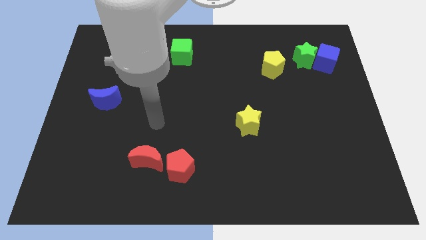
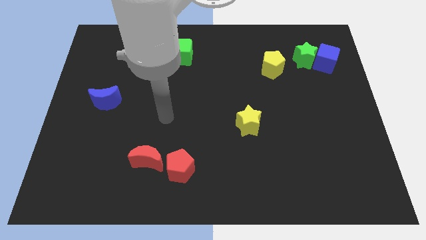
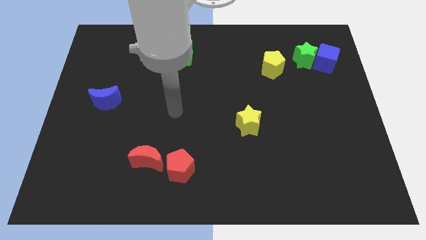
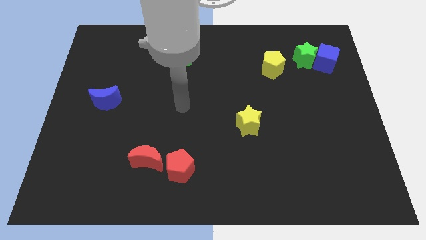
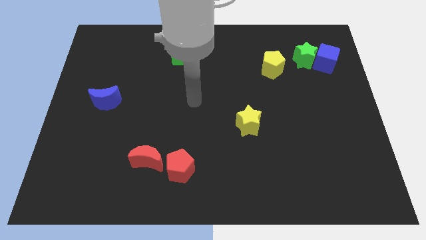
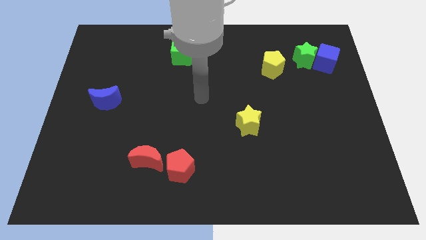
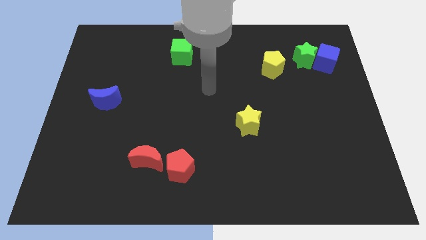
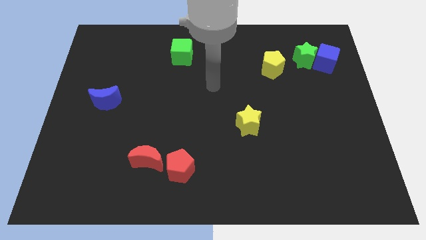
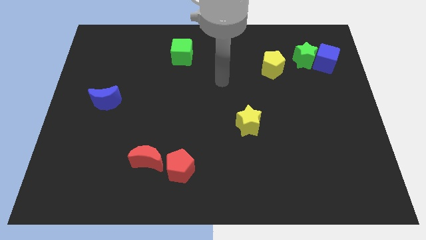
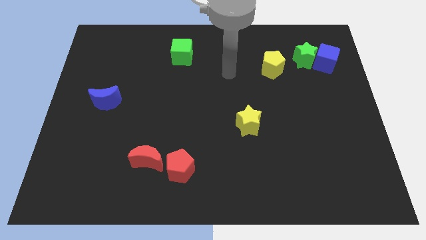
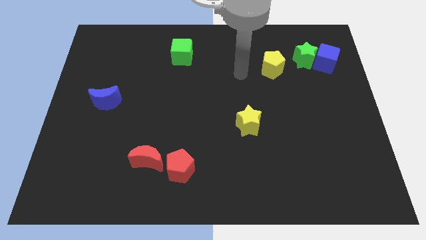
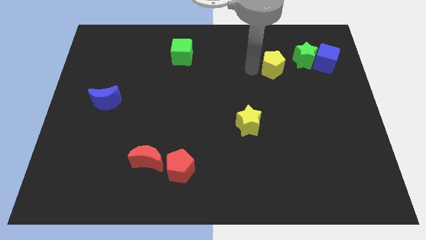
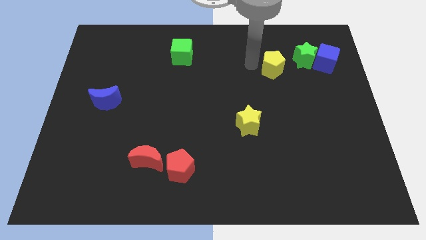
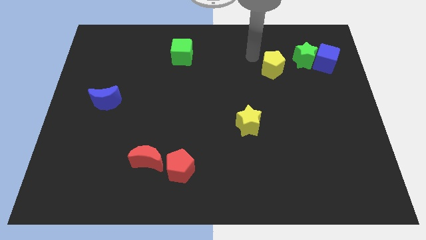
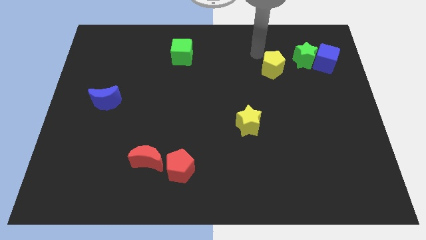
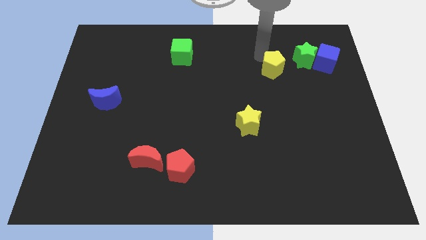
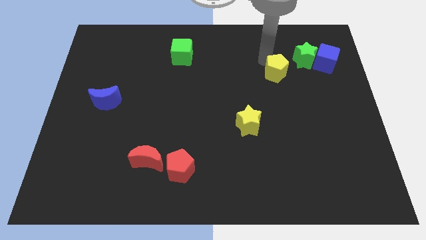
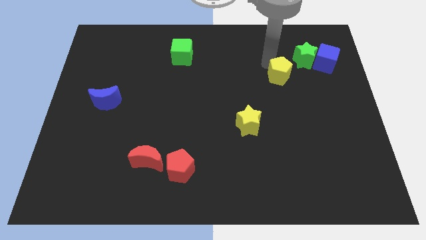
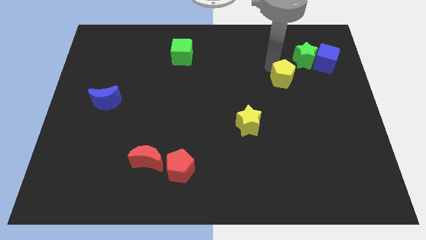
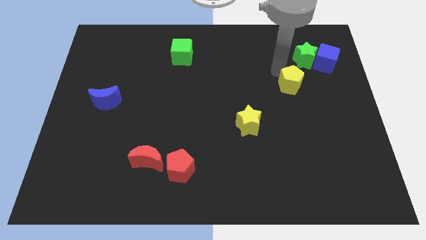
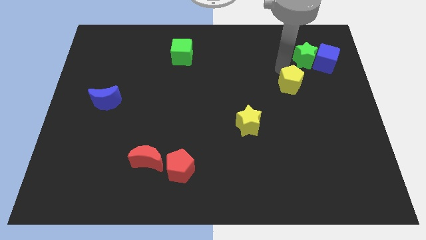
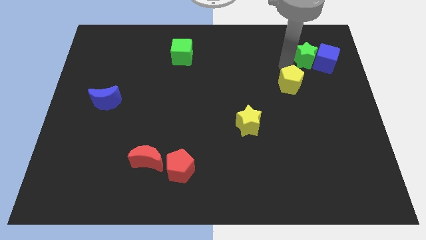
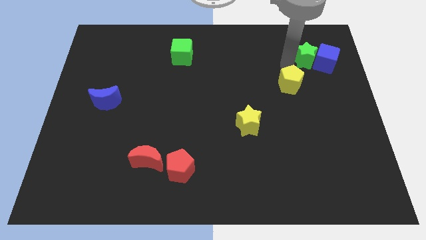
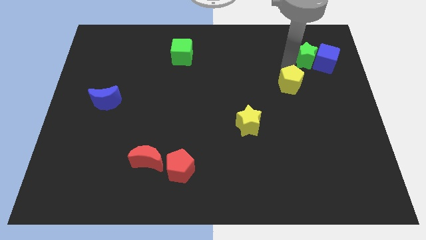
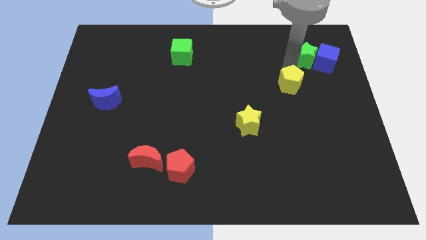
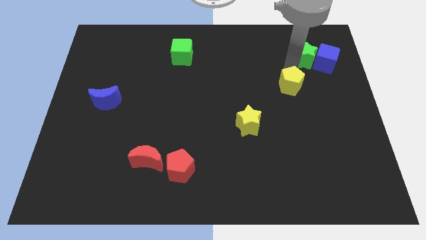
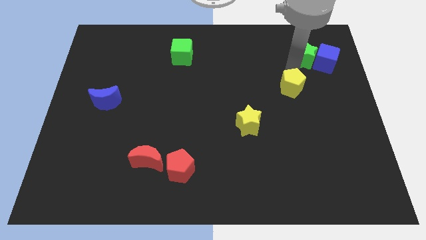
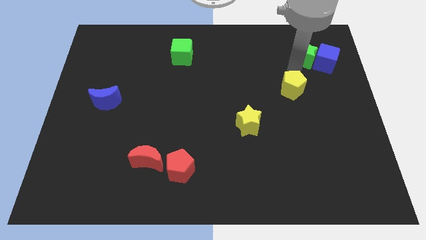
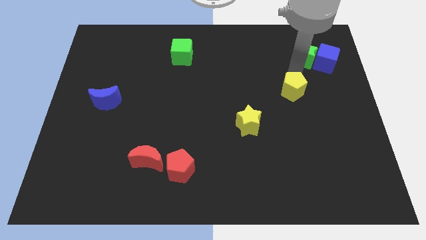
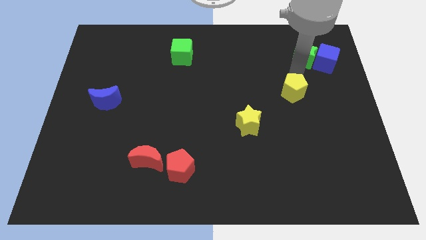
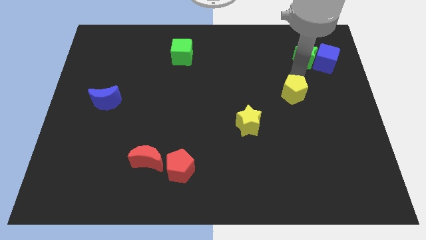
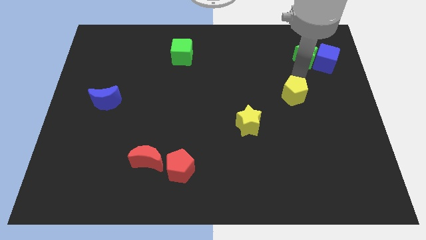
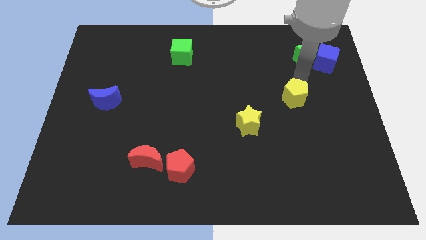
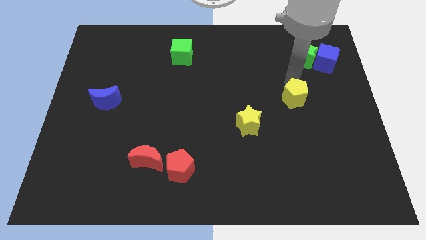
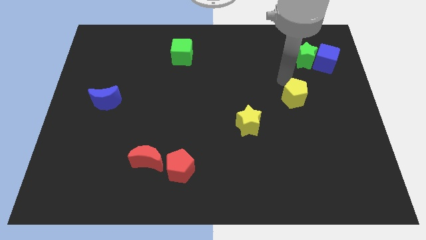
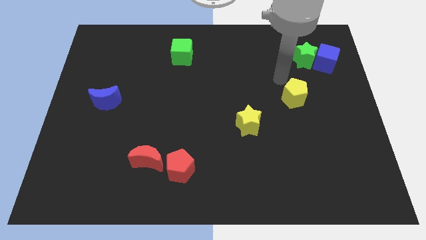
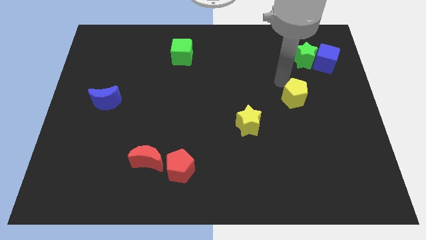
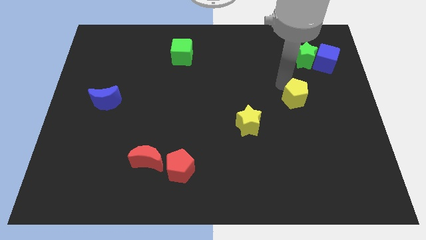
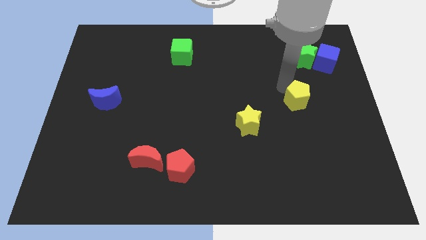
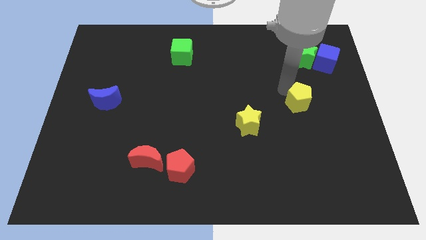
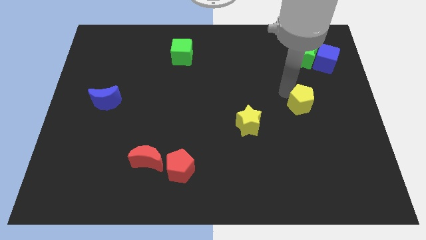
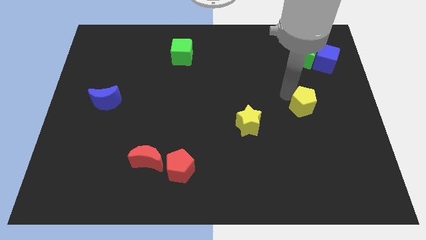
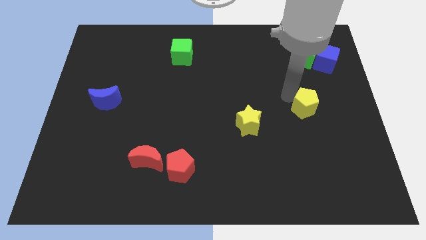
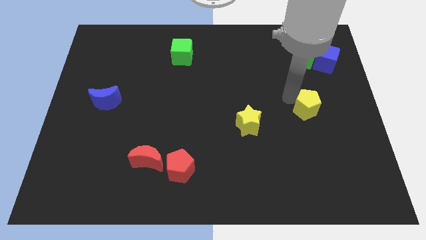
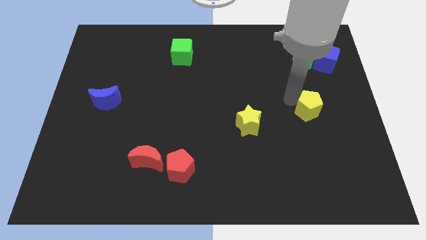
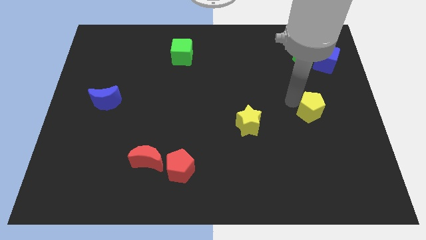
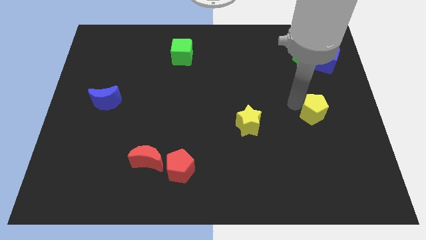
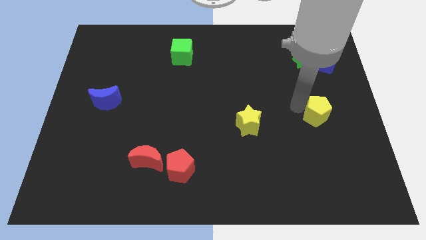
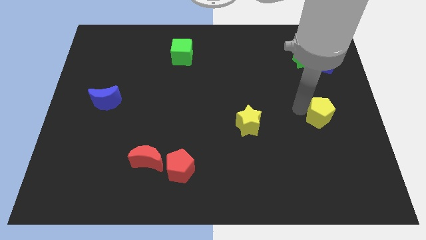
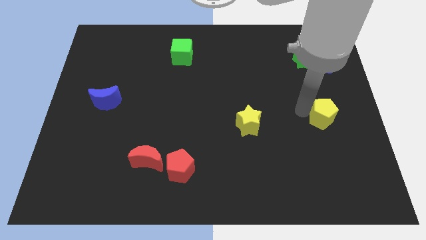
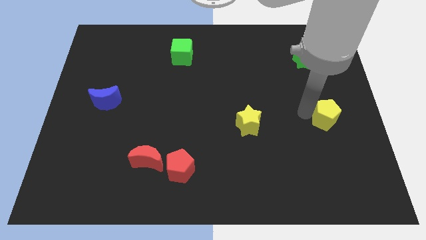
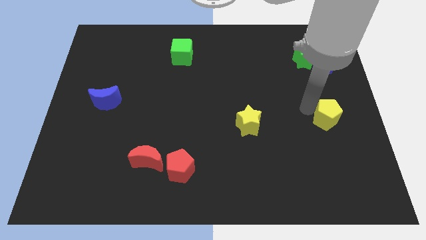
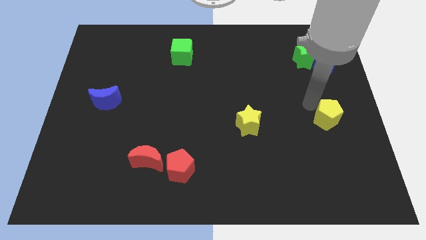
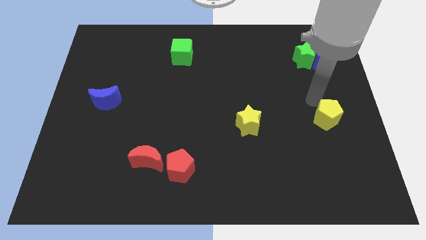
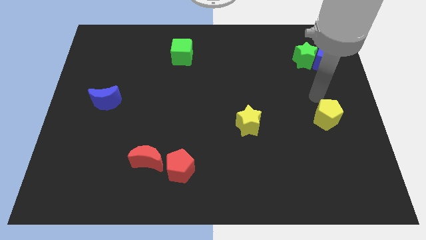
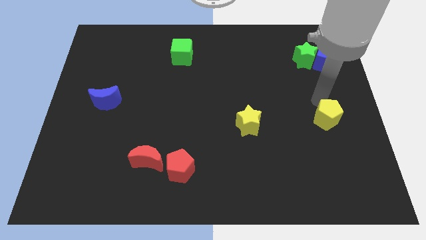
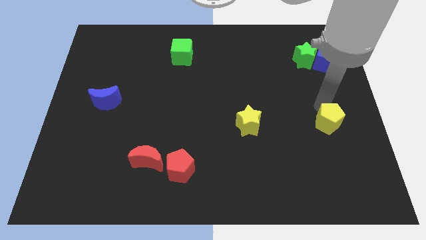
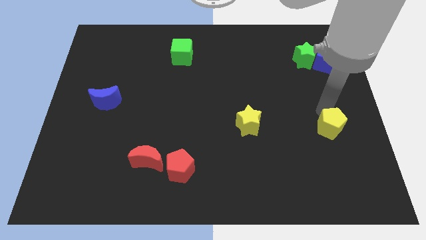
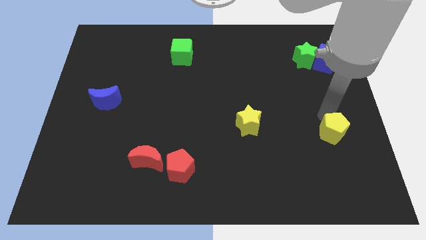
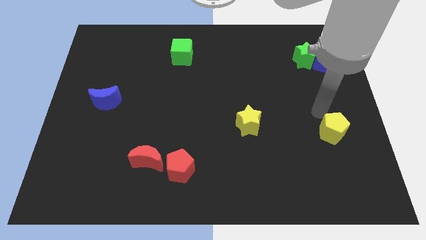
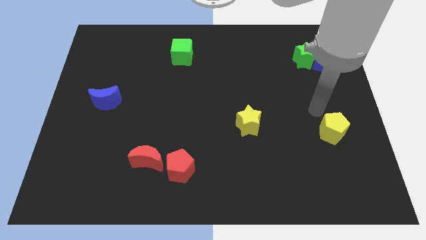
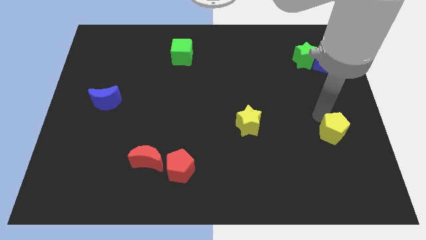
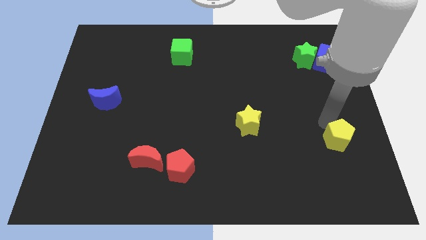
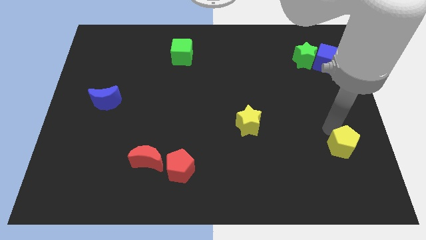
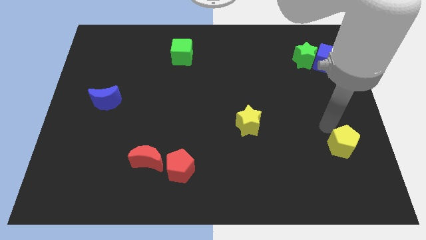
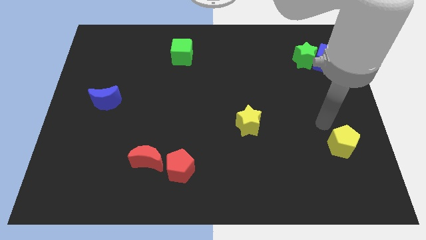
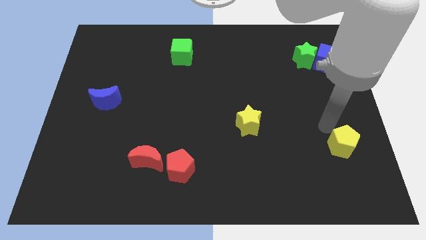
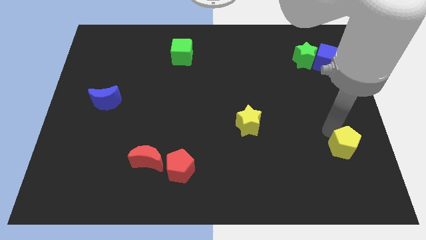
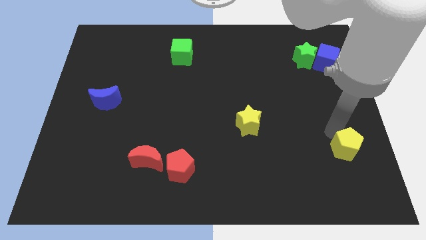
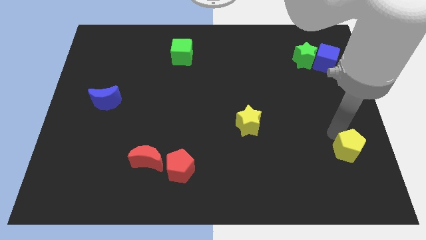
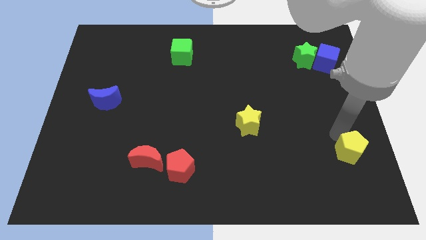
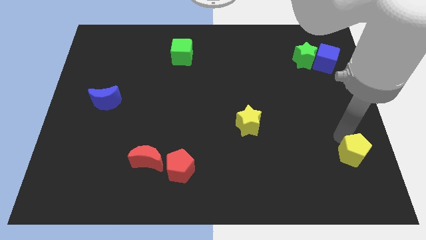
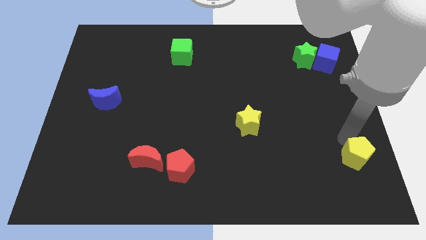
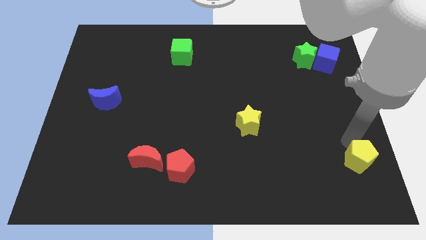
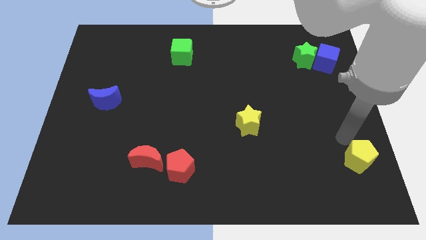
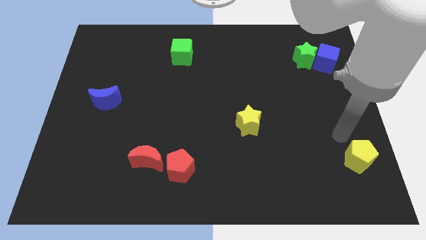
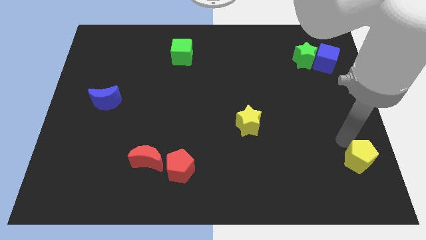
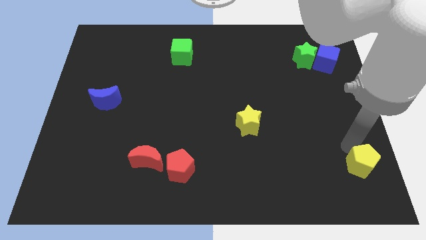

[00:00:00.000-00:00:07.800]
put the yellow pentagon to the lower right corner
